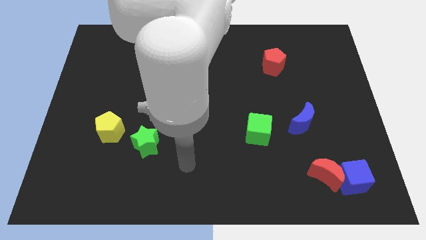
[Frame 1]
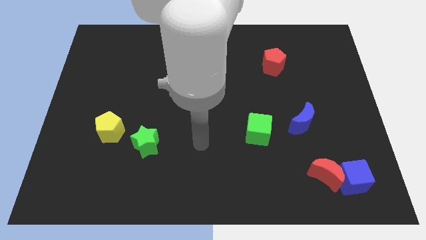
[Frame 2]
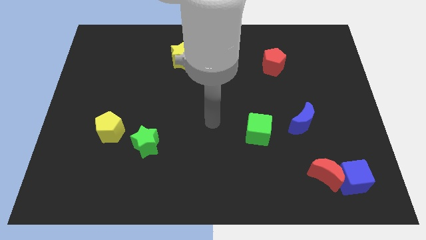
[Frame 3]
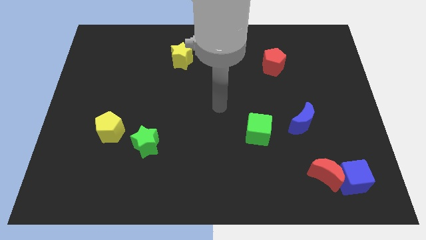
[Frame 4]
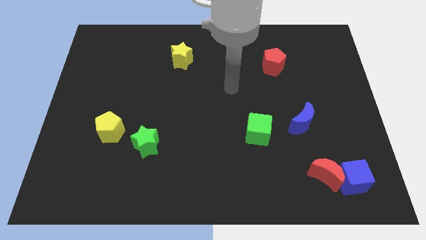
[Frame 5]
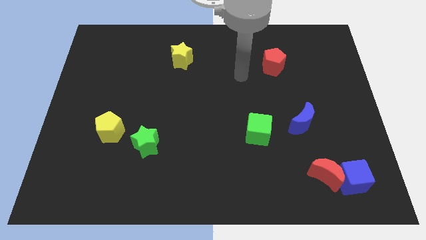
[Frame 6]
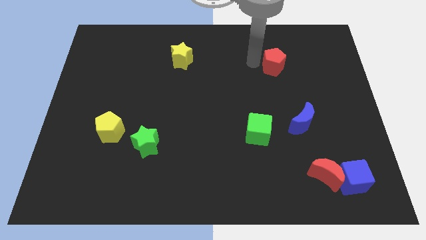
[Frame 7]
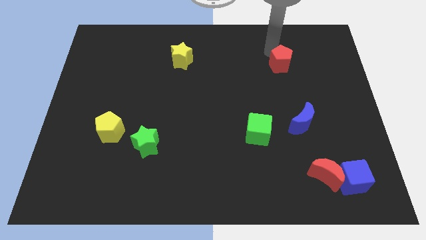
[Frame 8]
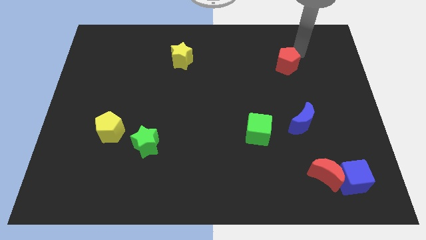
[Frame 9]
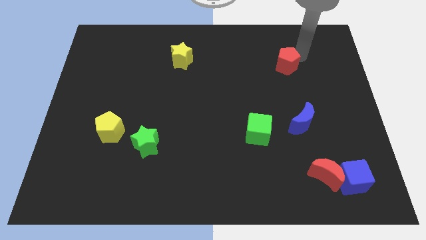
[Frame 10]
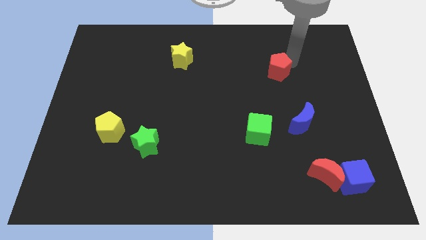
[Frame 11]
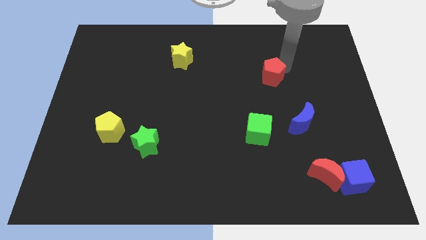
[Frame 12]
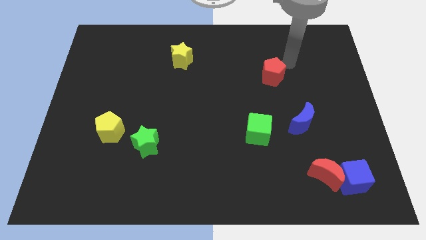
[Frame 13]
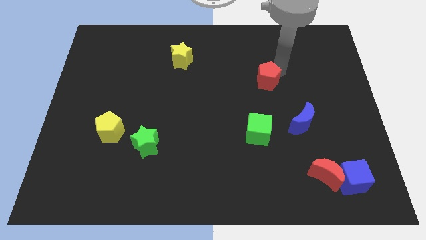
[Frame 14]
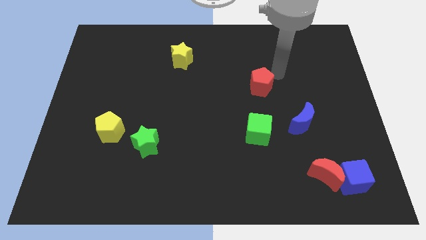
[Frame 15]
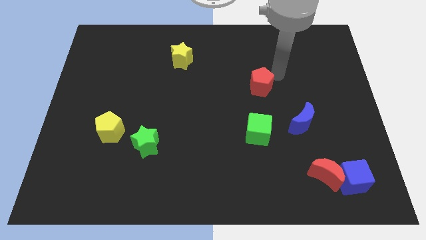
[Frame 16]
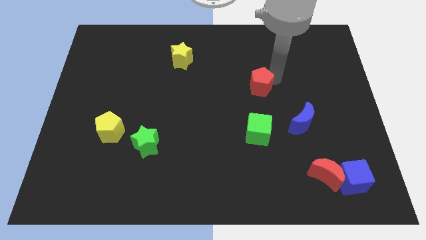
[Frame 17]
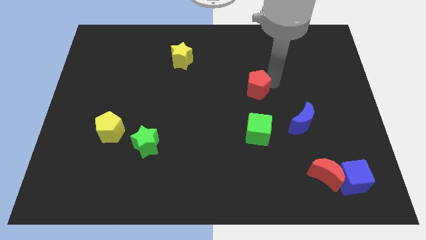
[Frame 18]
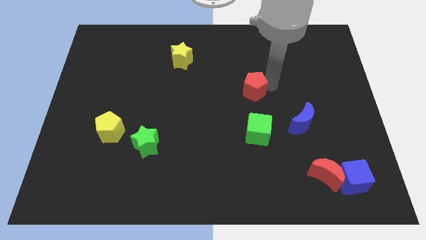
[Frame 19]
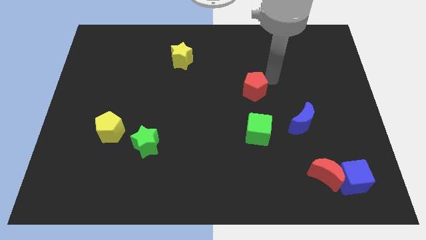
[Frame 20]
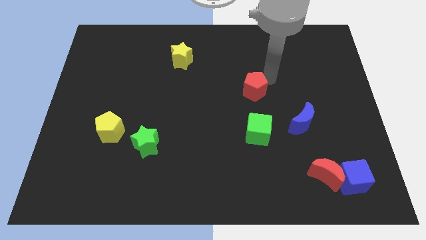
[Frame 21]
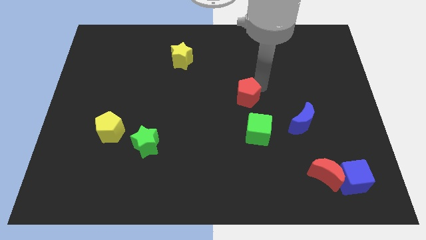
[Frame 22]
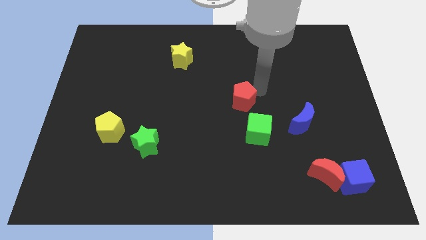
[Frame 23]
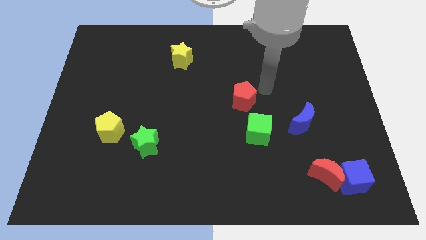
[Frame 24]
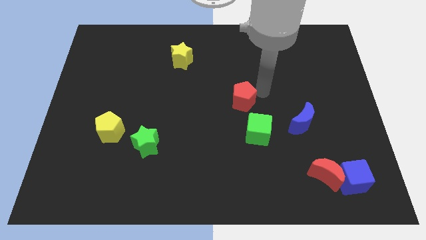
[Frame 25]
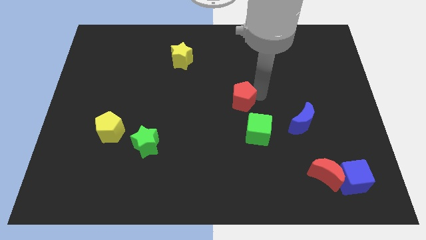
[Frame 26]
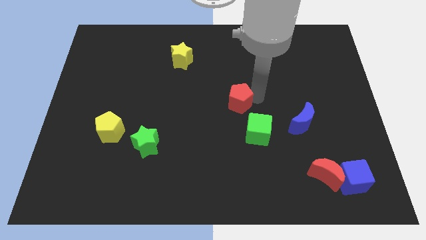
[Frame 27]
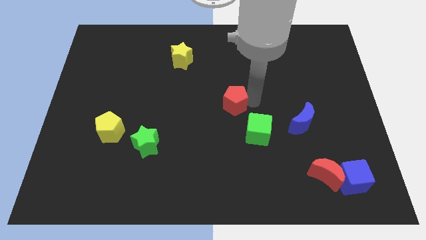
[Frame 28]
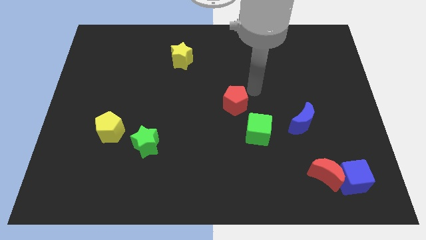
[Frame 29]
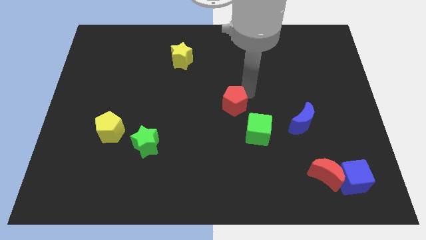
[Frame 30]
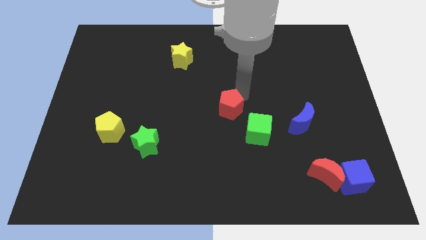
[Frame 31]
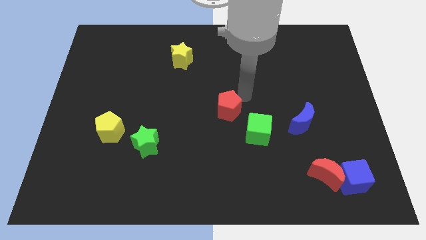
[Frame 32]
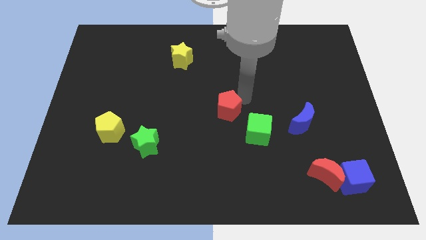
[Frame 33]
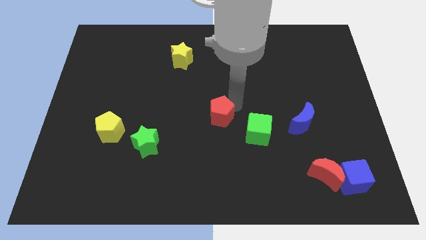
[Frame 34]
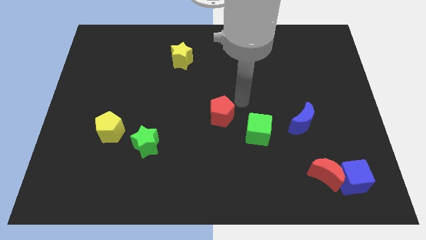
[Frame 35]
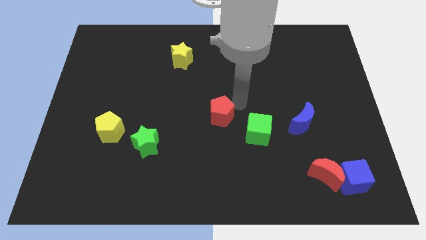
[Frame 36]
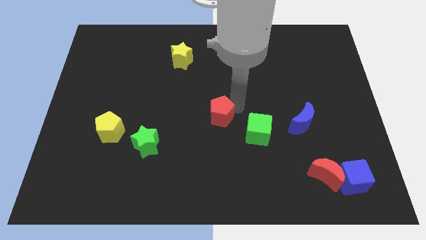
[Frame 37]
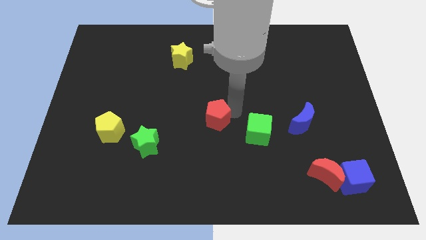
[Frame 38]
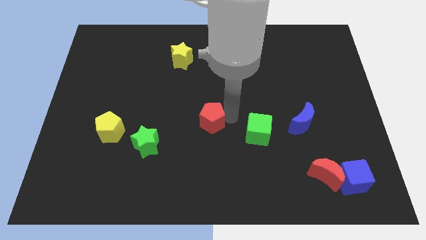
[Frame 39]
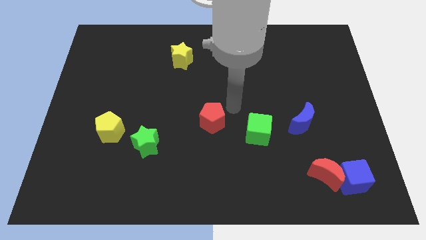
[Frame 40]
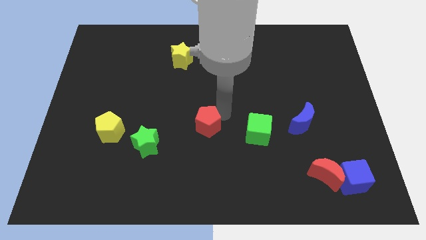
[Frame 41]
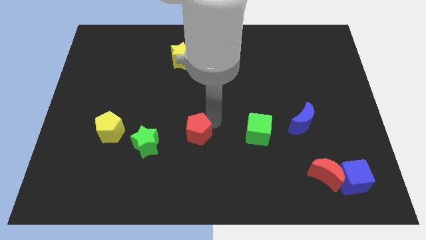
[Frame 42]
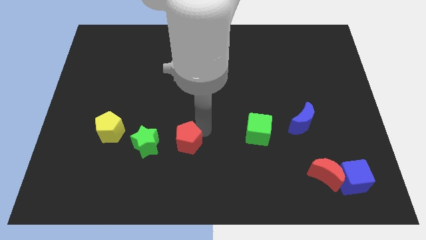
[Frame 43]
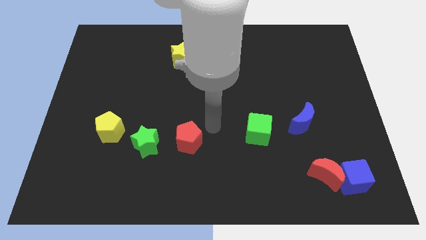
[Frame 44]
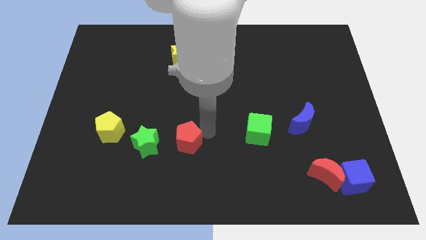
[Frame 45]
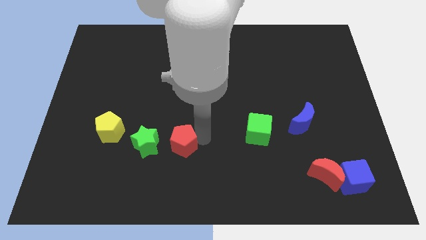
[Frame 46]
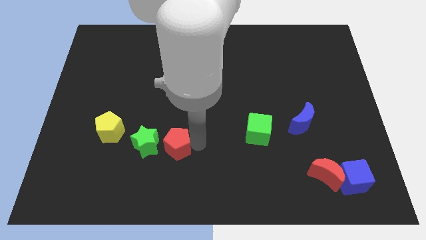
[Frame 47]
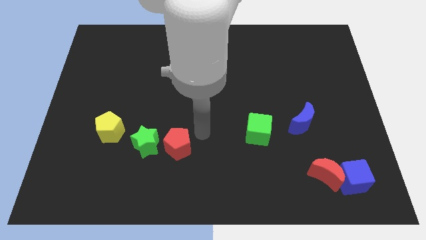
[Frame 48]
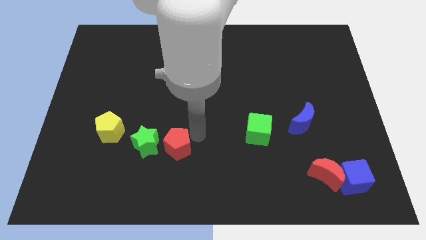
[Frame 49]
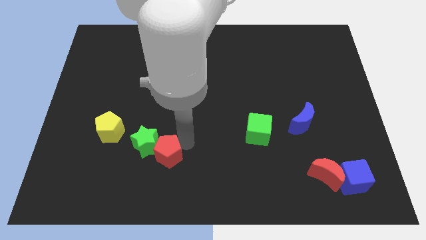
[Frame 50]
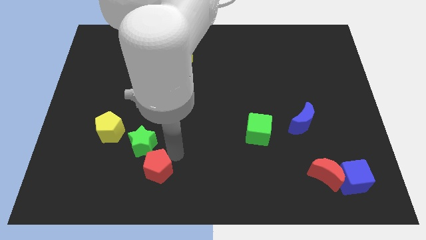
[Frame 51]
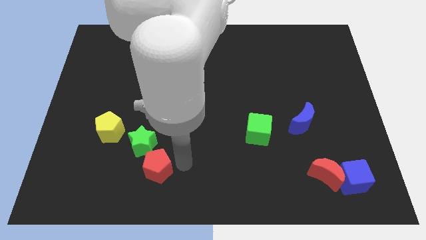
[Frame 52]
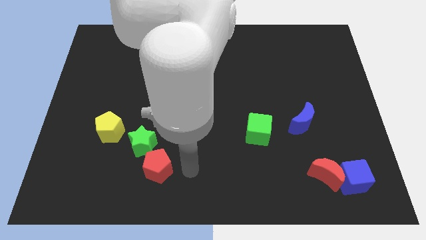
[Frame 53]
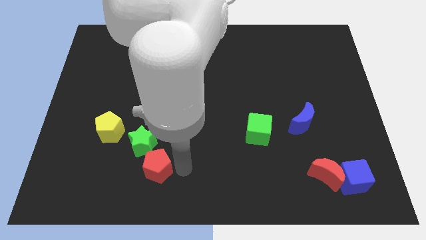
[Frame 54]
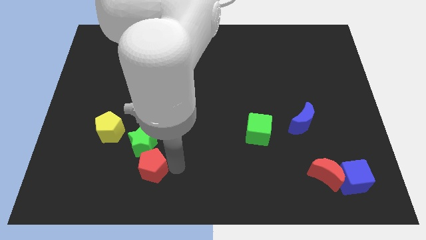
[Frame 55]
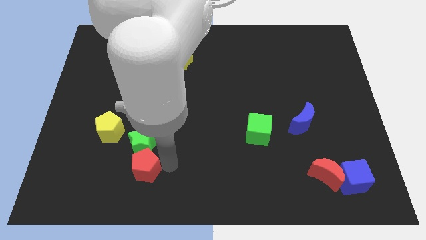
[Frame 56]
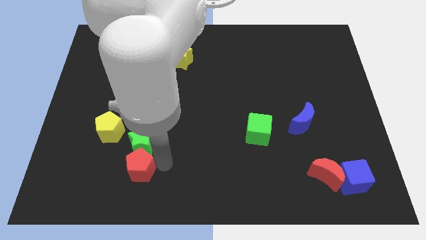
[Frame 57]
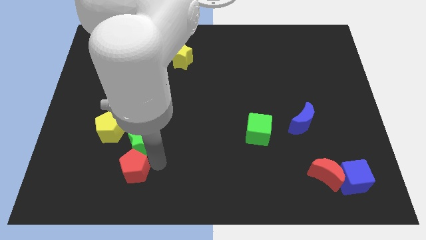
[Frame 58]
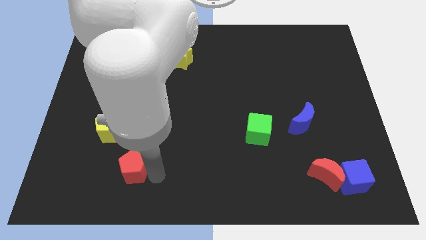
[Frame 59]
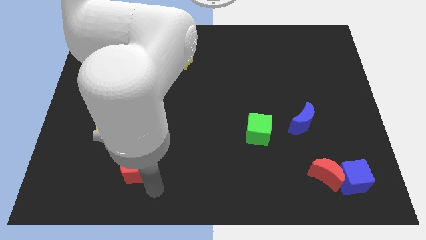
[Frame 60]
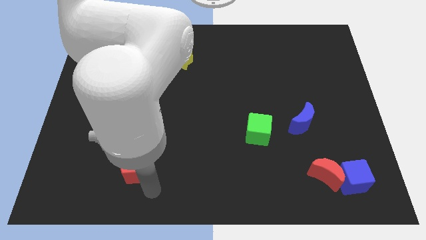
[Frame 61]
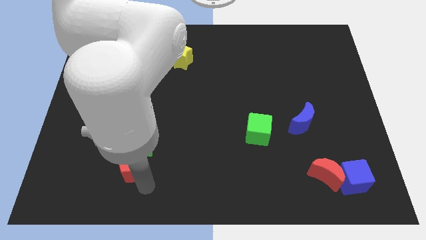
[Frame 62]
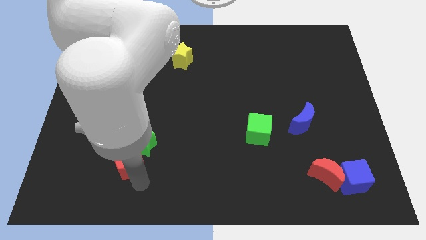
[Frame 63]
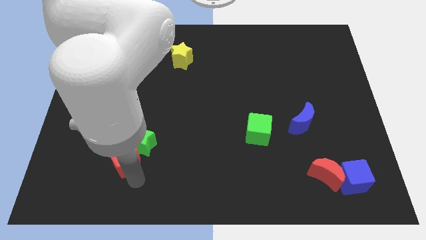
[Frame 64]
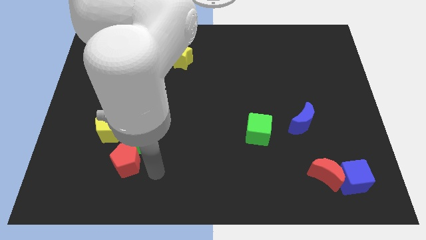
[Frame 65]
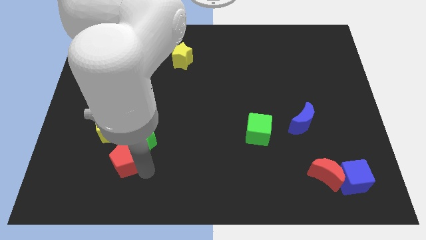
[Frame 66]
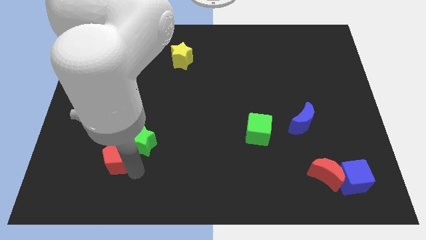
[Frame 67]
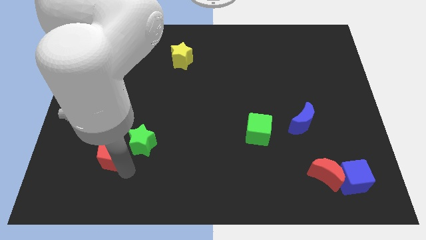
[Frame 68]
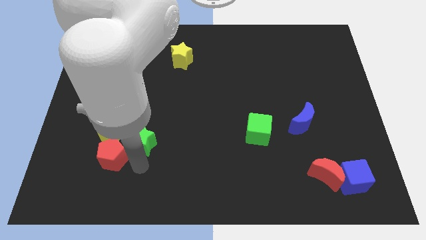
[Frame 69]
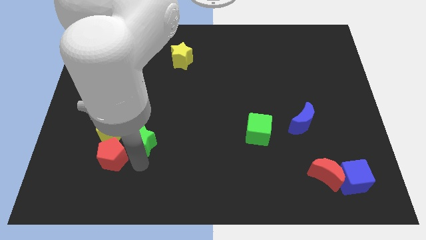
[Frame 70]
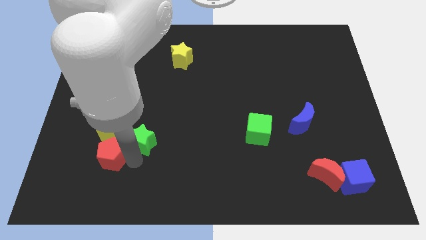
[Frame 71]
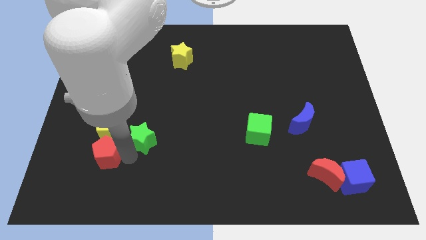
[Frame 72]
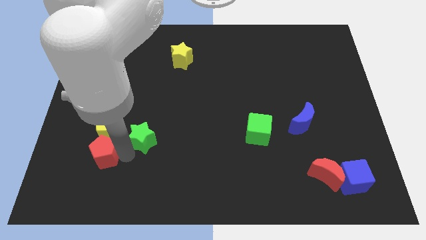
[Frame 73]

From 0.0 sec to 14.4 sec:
put the red pentagon diagonally down and to the left of the yellow pentagon
